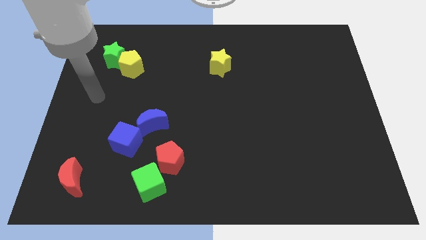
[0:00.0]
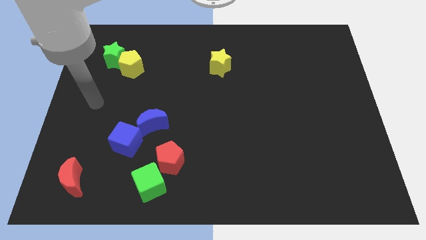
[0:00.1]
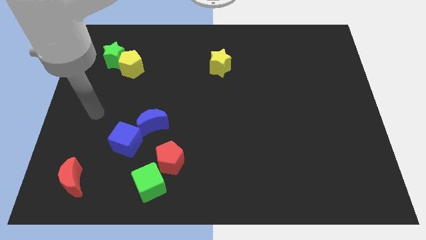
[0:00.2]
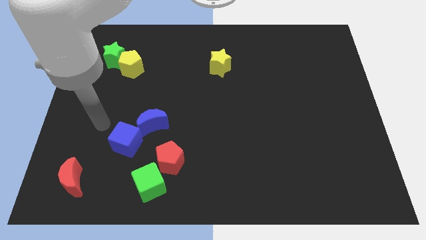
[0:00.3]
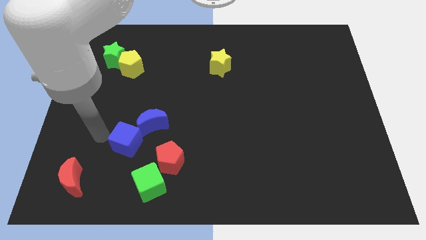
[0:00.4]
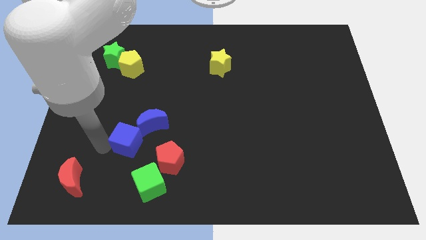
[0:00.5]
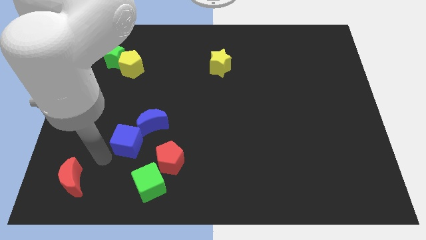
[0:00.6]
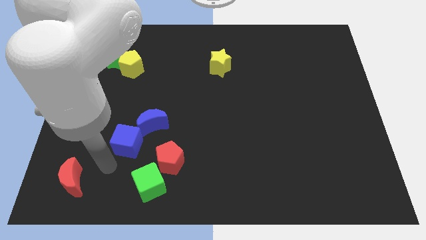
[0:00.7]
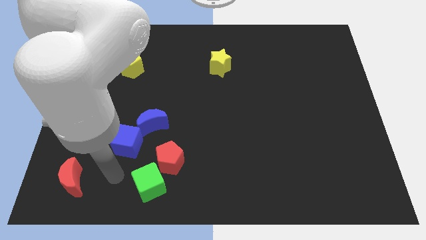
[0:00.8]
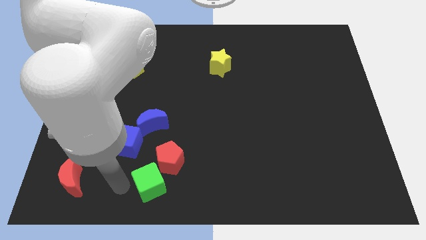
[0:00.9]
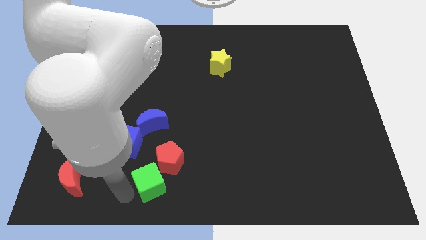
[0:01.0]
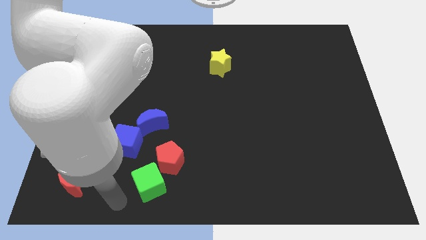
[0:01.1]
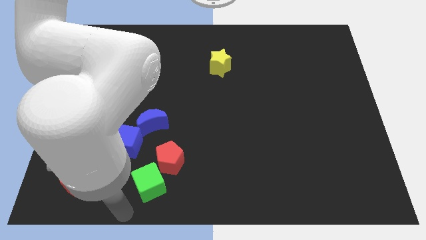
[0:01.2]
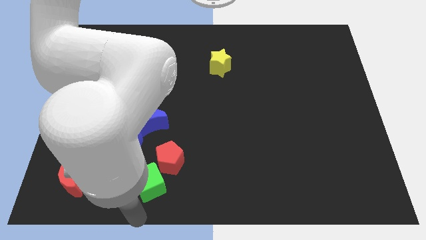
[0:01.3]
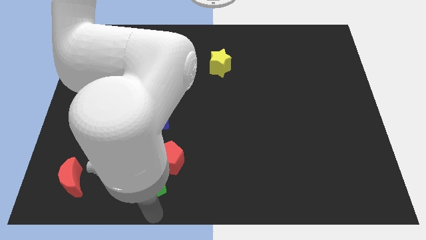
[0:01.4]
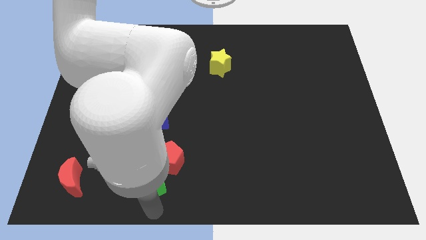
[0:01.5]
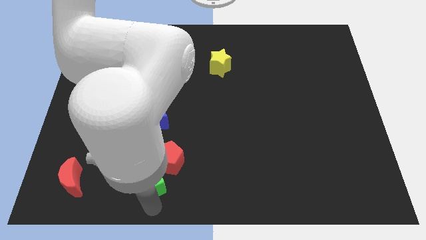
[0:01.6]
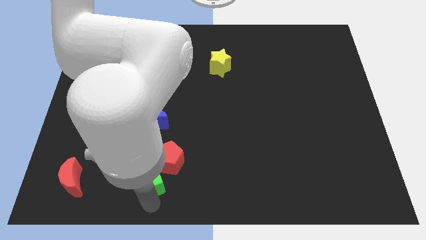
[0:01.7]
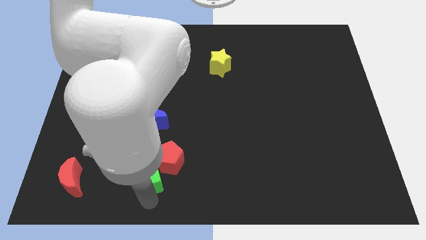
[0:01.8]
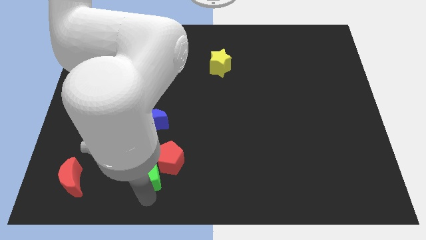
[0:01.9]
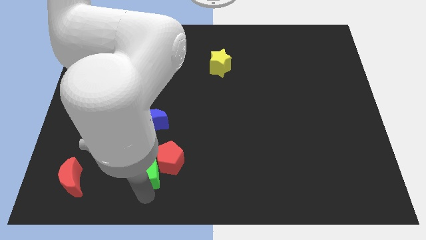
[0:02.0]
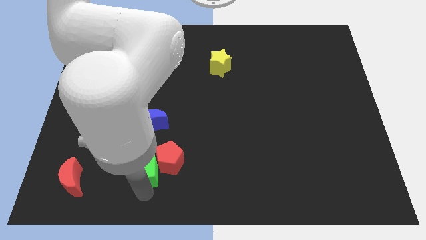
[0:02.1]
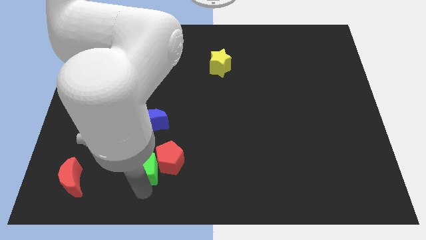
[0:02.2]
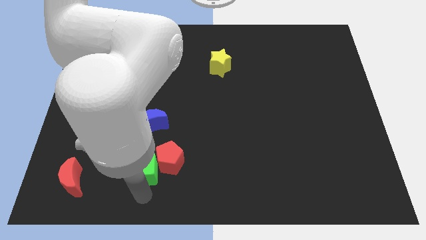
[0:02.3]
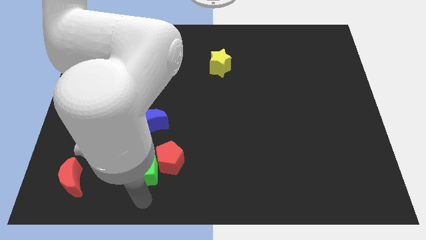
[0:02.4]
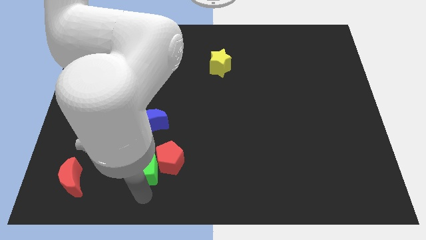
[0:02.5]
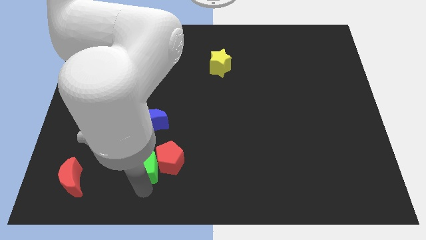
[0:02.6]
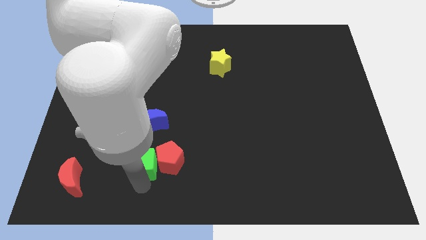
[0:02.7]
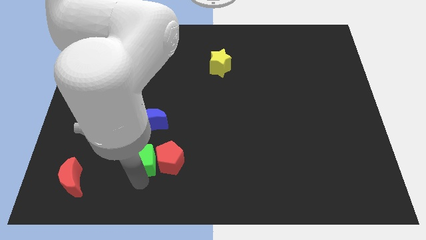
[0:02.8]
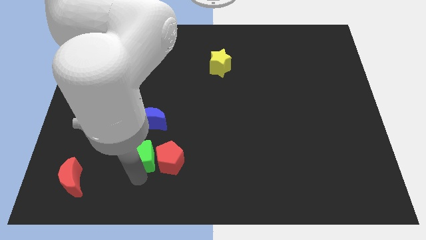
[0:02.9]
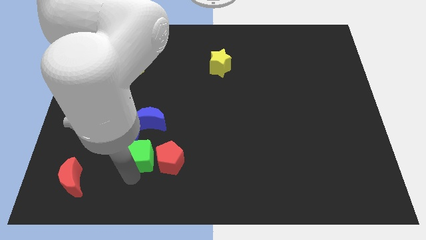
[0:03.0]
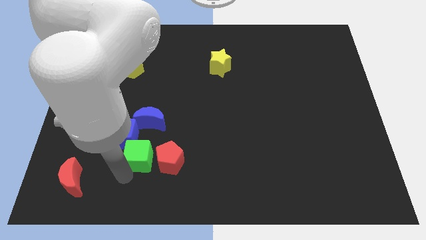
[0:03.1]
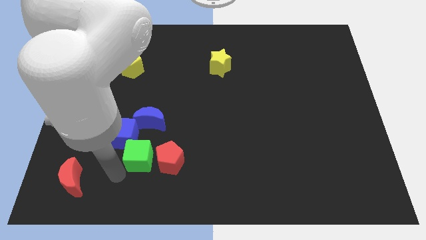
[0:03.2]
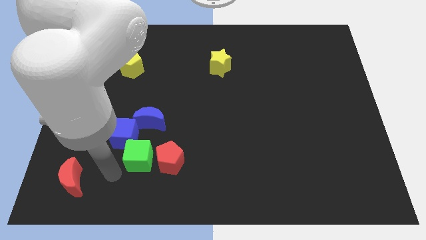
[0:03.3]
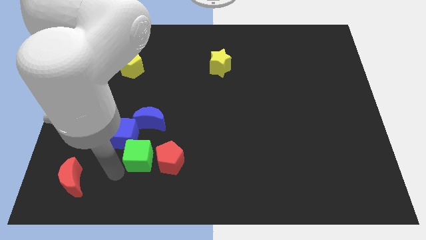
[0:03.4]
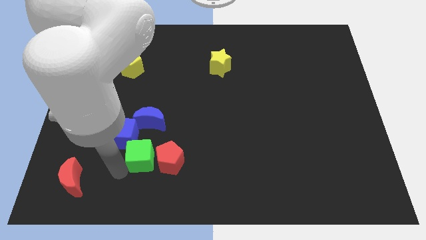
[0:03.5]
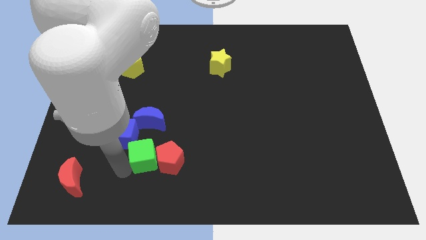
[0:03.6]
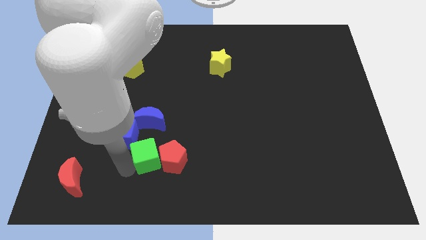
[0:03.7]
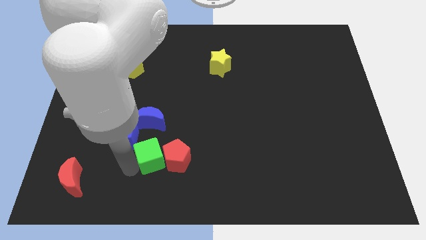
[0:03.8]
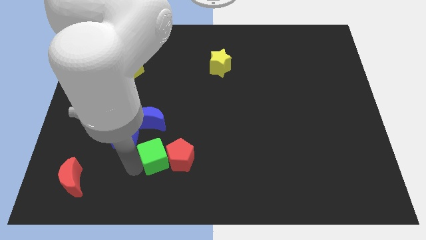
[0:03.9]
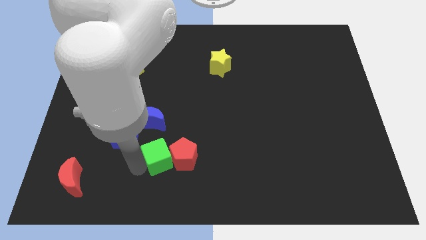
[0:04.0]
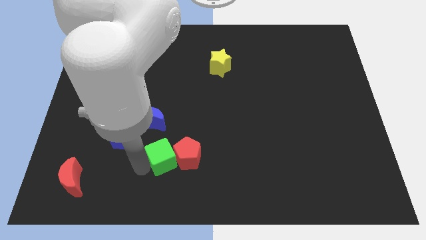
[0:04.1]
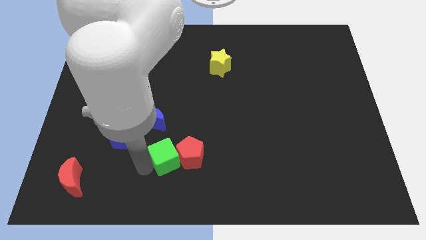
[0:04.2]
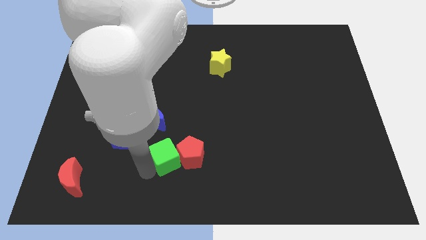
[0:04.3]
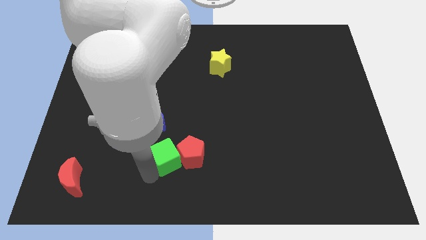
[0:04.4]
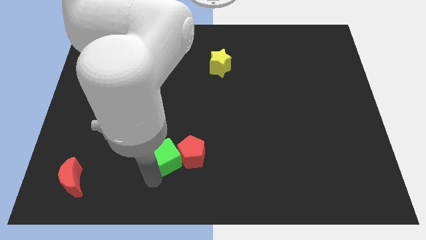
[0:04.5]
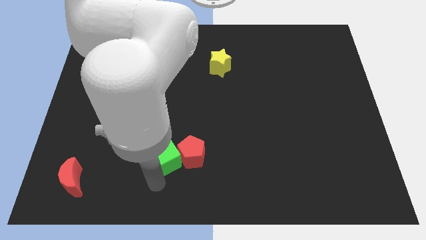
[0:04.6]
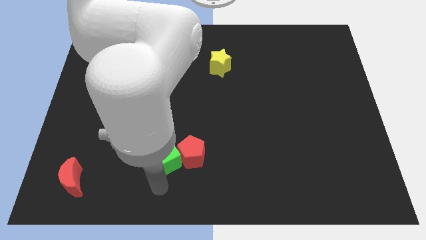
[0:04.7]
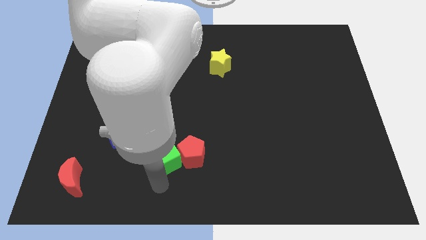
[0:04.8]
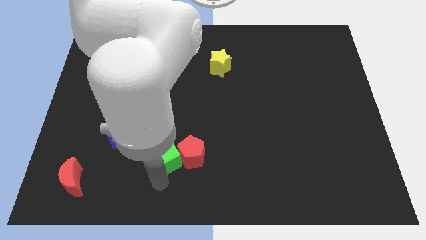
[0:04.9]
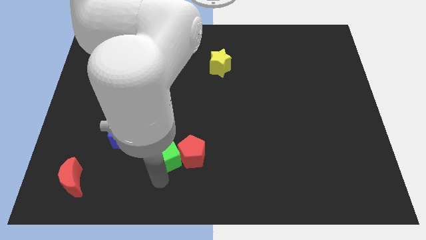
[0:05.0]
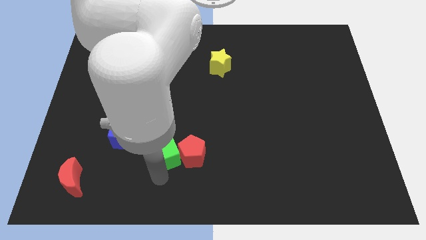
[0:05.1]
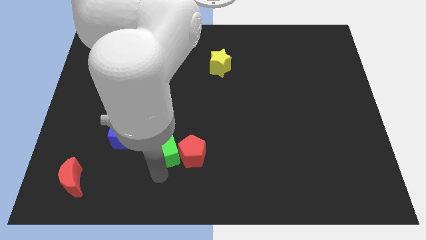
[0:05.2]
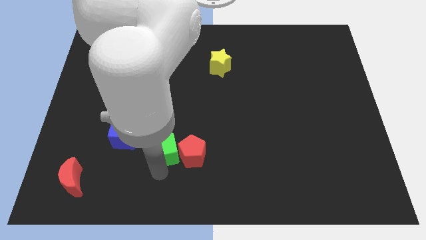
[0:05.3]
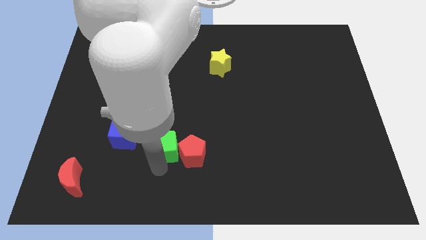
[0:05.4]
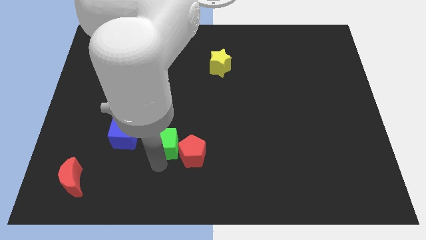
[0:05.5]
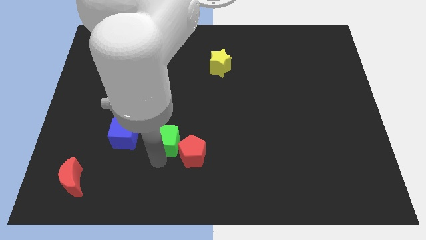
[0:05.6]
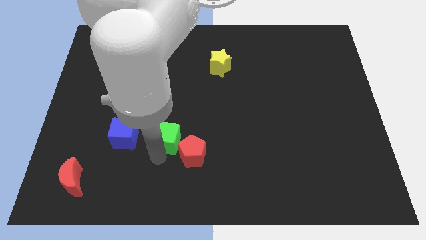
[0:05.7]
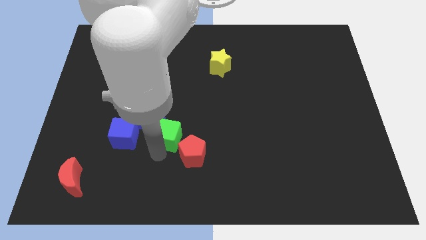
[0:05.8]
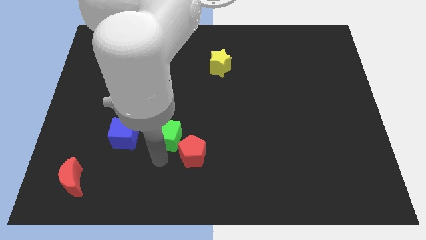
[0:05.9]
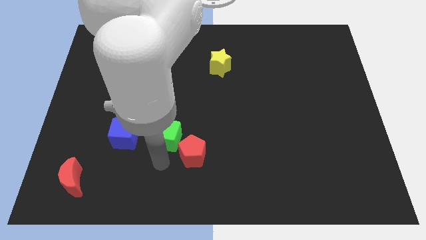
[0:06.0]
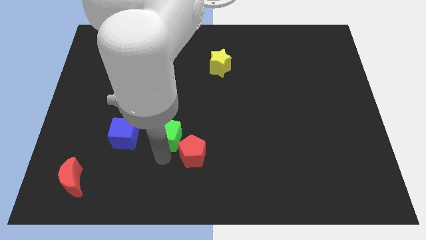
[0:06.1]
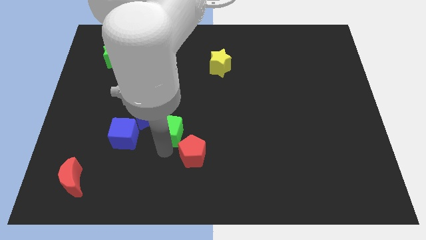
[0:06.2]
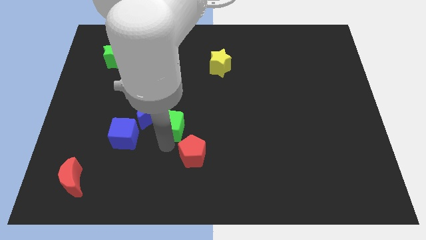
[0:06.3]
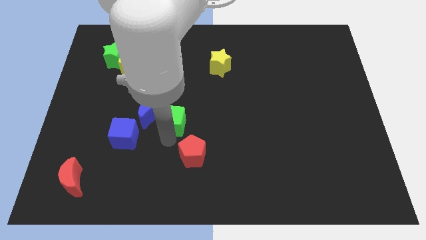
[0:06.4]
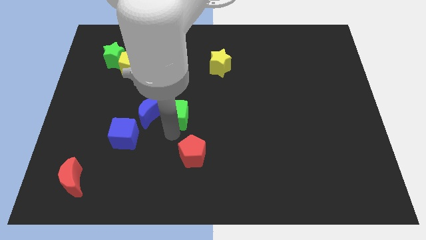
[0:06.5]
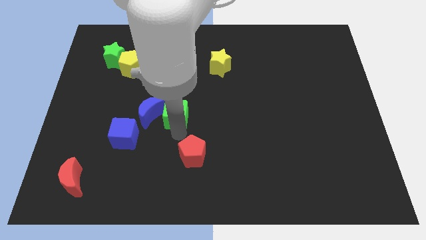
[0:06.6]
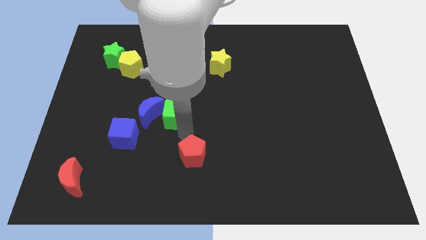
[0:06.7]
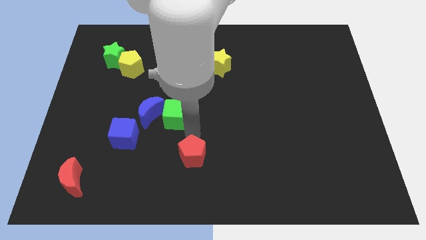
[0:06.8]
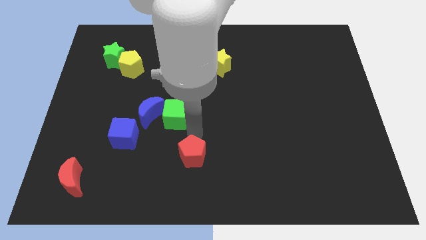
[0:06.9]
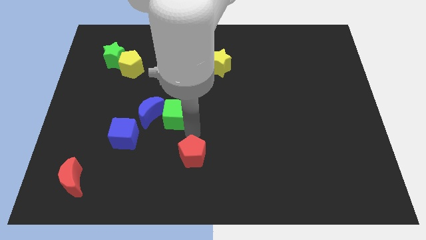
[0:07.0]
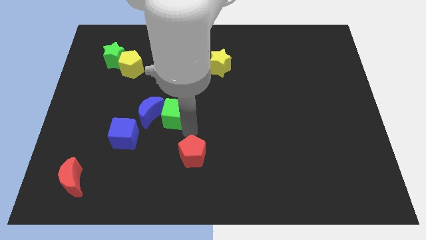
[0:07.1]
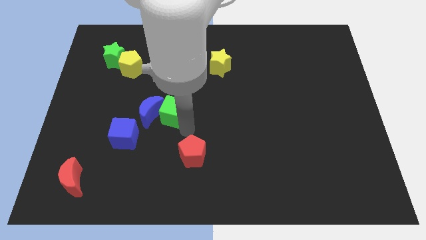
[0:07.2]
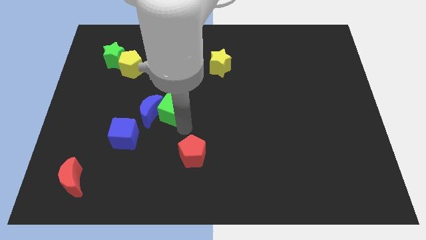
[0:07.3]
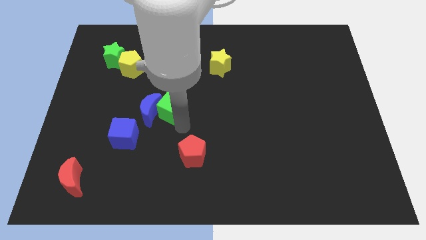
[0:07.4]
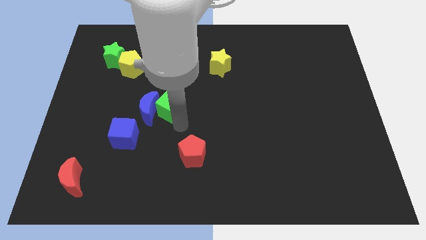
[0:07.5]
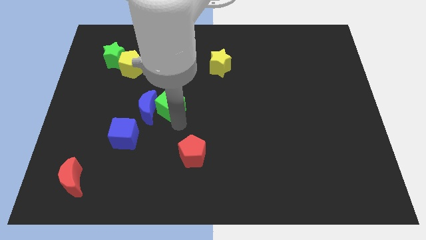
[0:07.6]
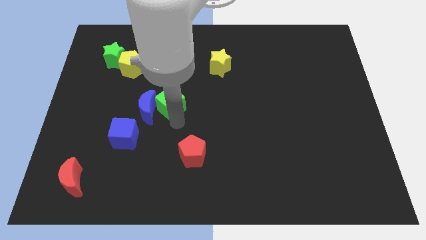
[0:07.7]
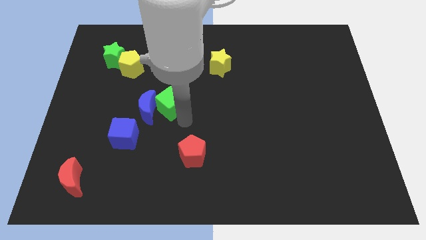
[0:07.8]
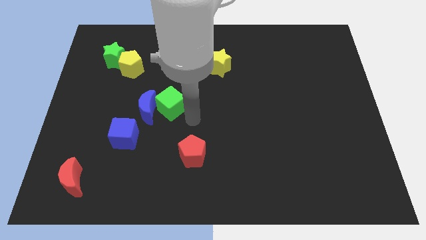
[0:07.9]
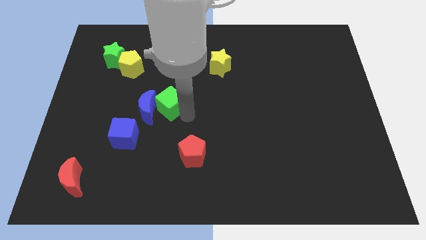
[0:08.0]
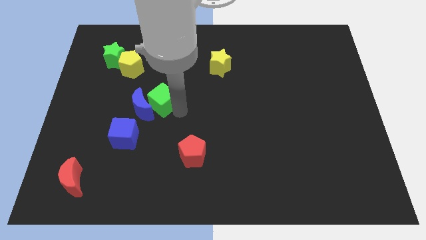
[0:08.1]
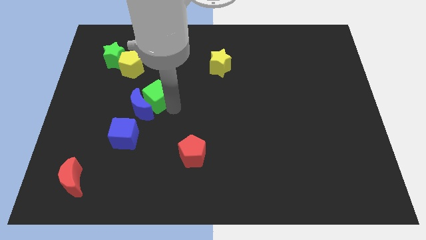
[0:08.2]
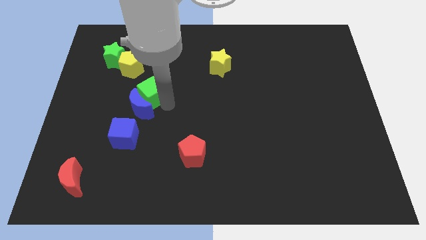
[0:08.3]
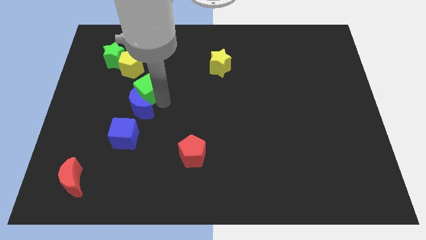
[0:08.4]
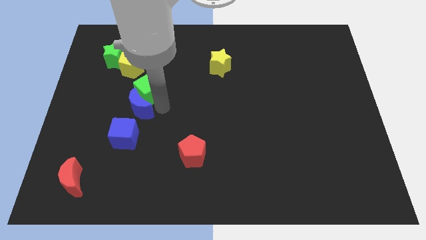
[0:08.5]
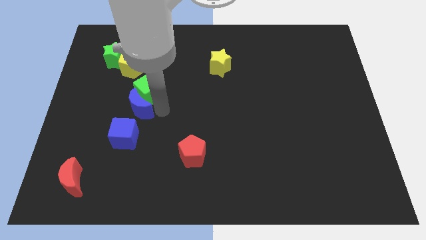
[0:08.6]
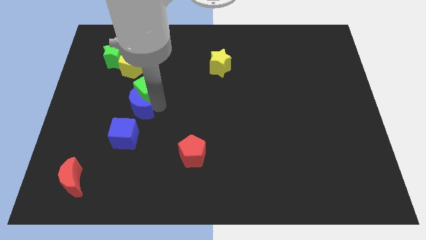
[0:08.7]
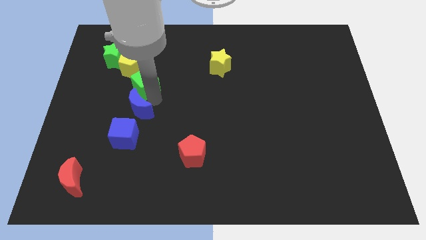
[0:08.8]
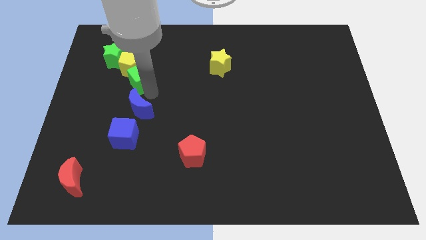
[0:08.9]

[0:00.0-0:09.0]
move the green cube towards the yellow pentagon
